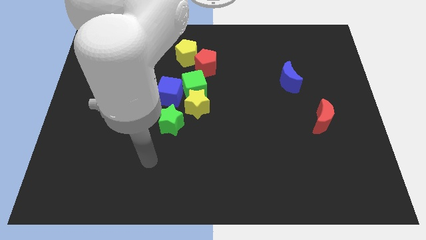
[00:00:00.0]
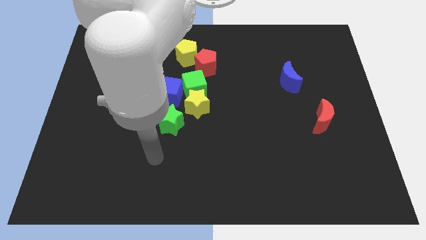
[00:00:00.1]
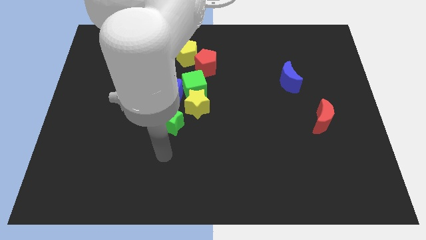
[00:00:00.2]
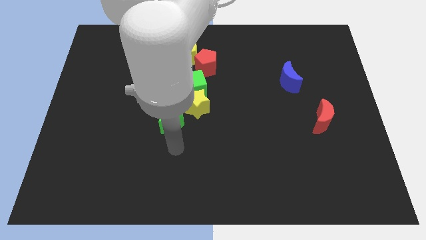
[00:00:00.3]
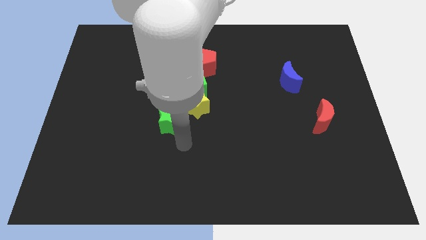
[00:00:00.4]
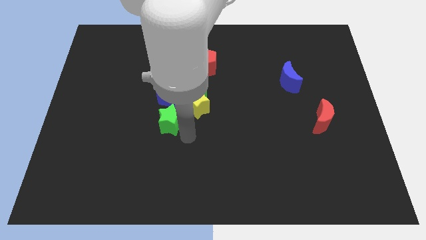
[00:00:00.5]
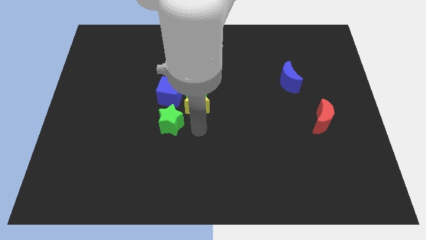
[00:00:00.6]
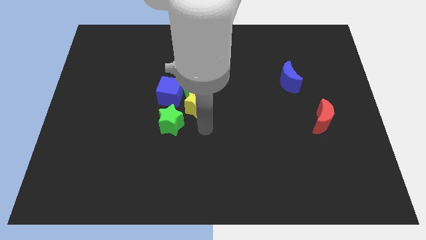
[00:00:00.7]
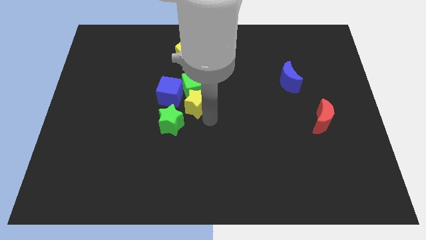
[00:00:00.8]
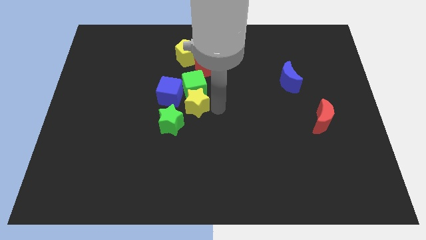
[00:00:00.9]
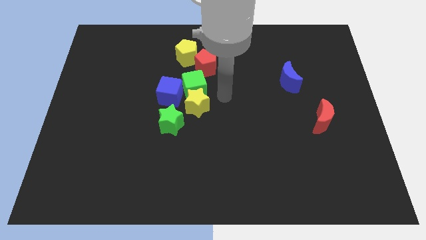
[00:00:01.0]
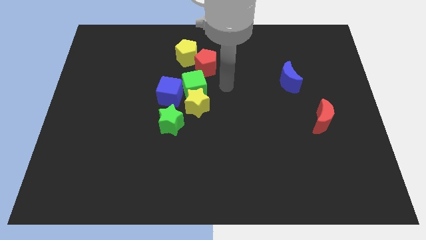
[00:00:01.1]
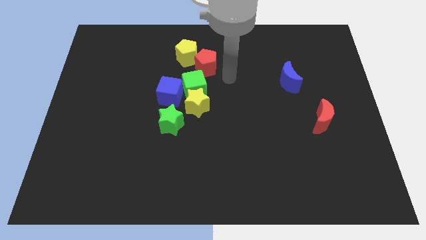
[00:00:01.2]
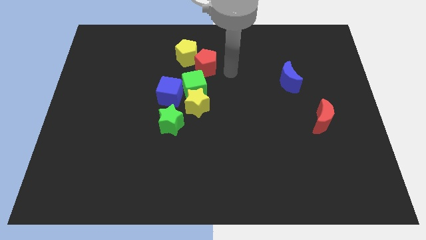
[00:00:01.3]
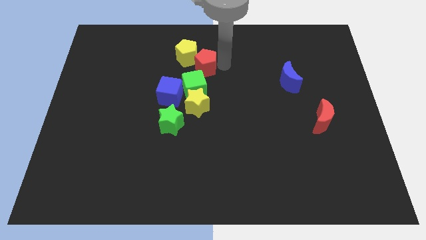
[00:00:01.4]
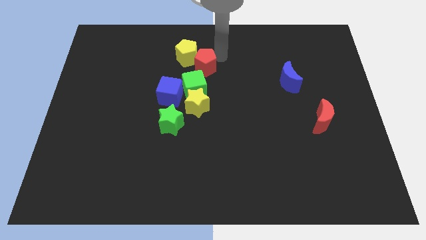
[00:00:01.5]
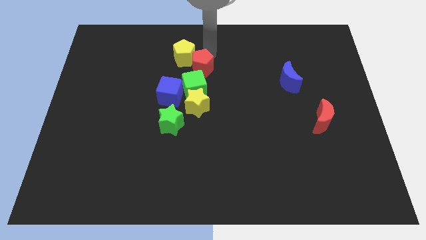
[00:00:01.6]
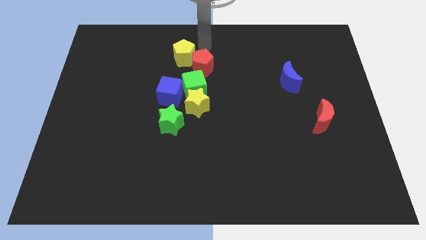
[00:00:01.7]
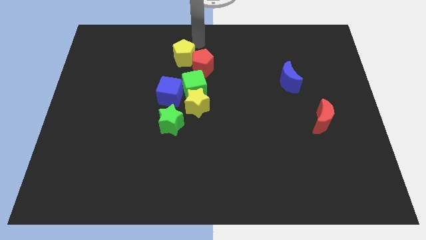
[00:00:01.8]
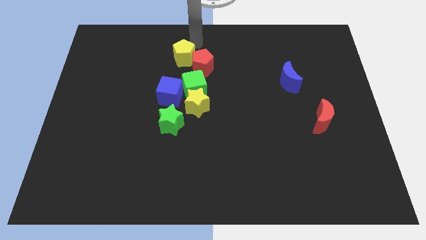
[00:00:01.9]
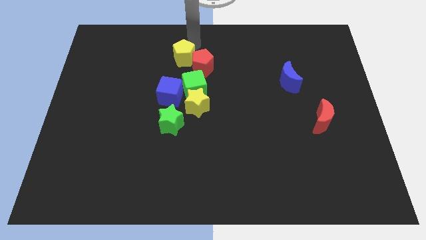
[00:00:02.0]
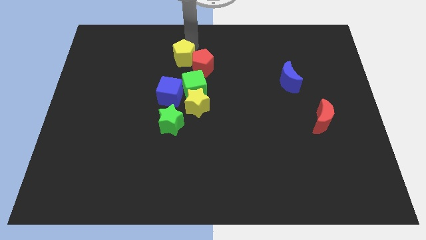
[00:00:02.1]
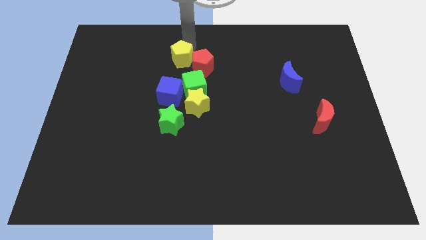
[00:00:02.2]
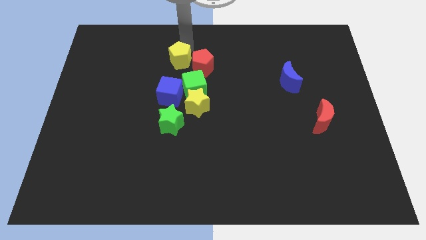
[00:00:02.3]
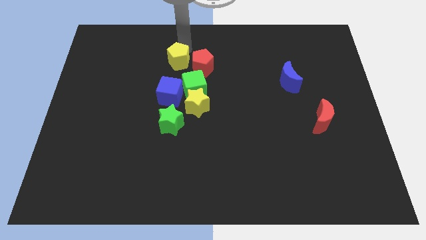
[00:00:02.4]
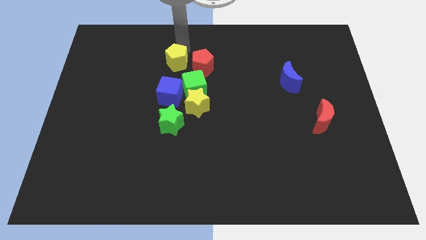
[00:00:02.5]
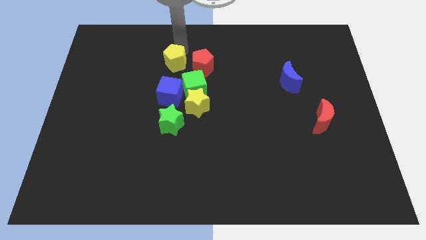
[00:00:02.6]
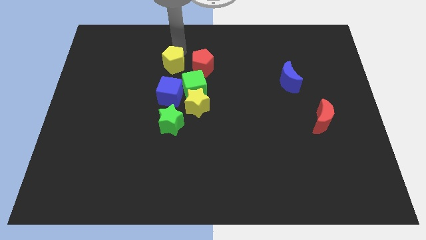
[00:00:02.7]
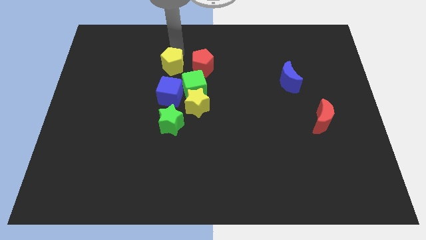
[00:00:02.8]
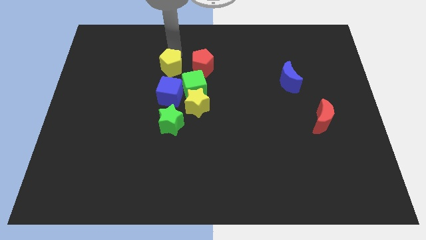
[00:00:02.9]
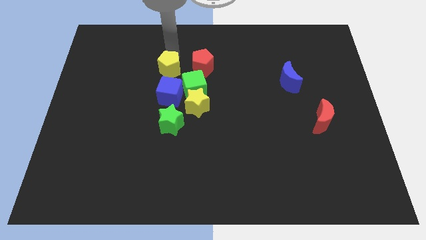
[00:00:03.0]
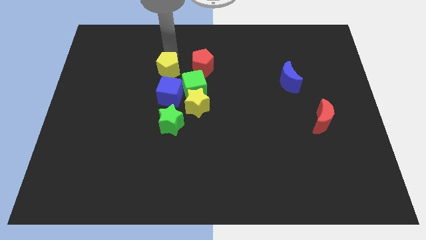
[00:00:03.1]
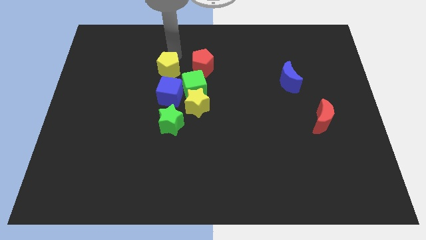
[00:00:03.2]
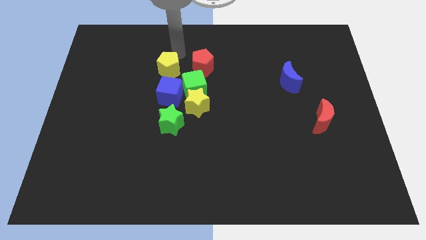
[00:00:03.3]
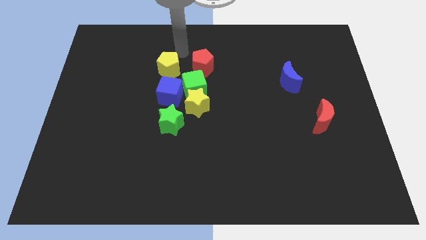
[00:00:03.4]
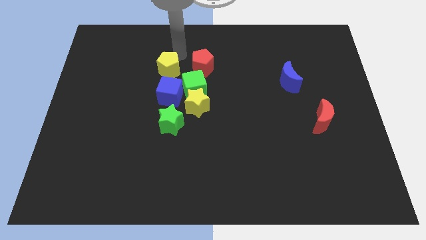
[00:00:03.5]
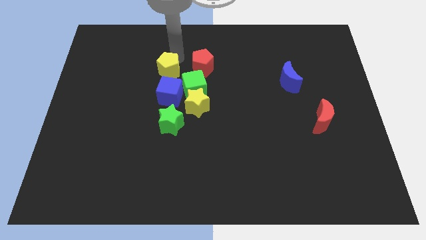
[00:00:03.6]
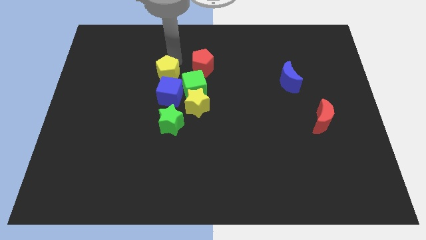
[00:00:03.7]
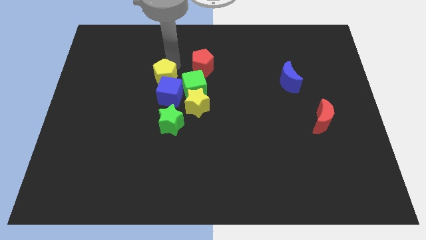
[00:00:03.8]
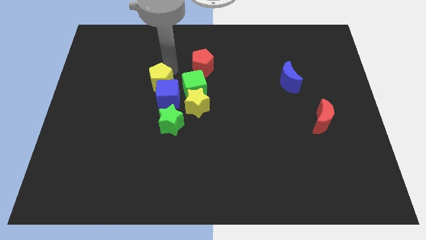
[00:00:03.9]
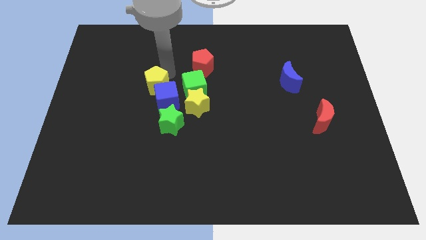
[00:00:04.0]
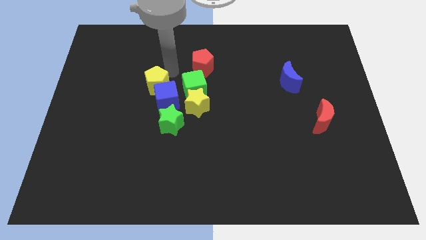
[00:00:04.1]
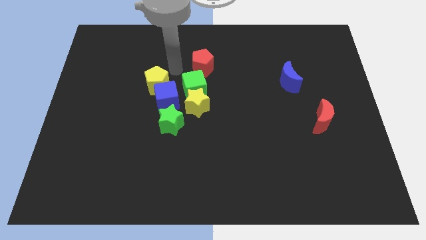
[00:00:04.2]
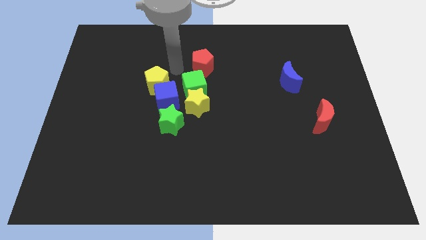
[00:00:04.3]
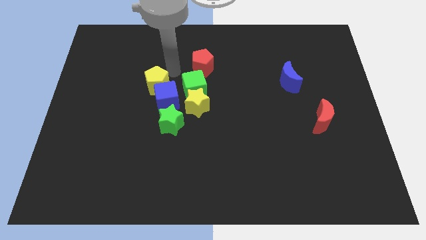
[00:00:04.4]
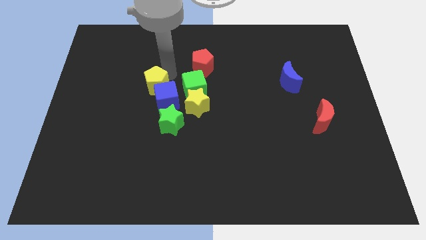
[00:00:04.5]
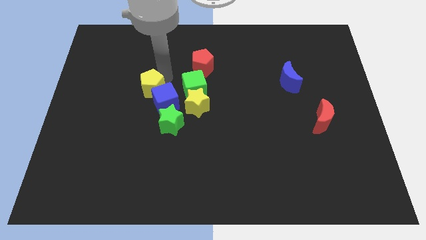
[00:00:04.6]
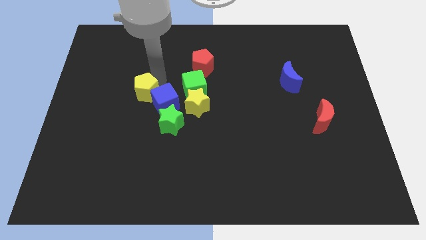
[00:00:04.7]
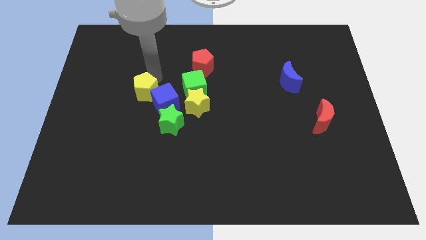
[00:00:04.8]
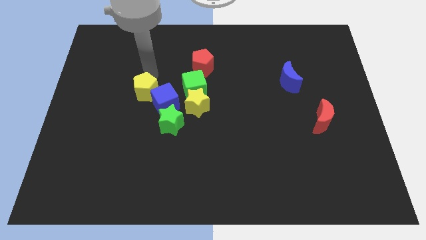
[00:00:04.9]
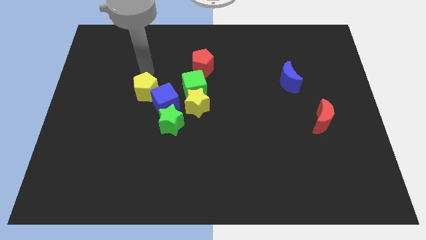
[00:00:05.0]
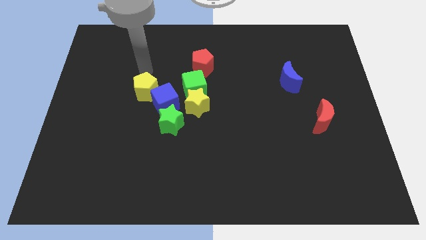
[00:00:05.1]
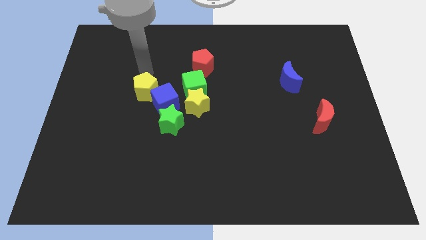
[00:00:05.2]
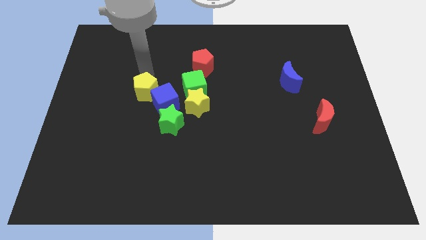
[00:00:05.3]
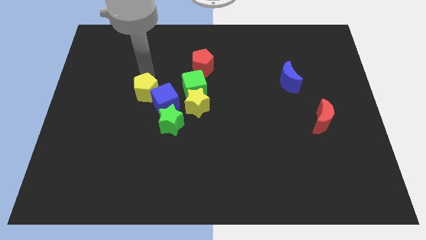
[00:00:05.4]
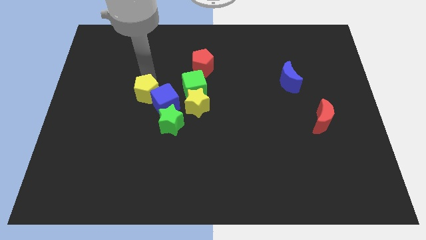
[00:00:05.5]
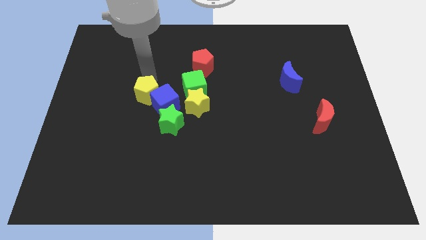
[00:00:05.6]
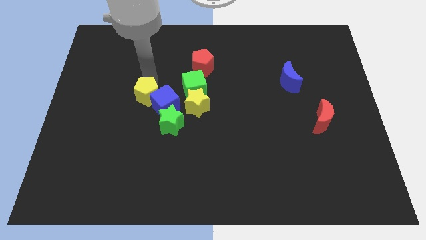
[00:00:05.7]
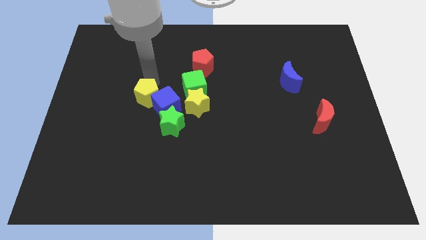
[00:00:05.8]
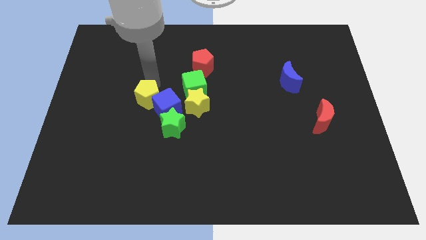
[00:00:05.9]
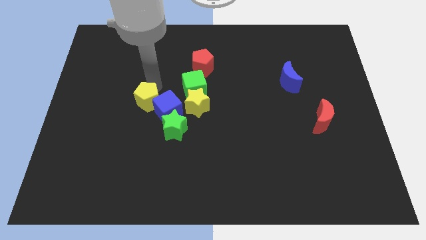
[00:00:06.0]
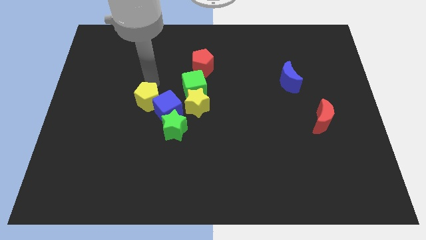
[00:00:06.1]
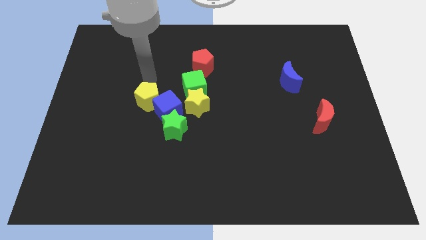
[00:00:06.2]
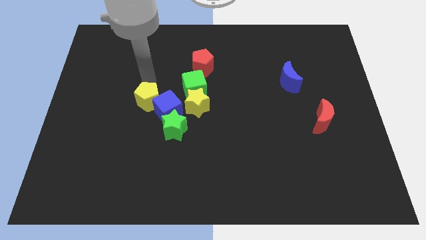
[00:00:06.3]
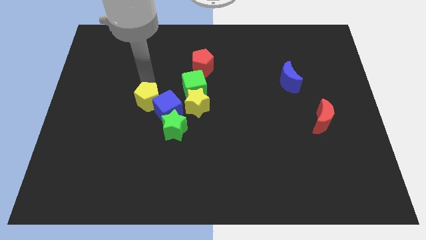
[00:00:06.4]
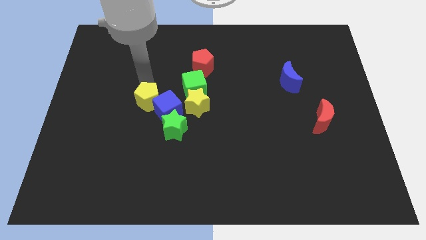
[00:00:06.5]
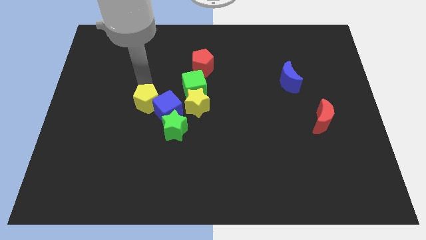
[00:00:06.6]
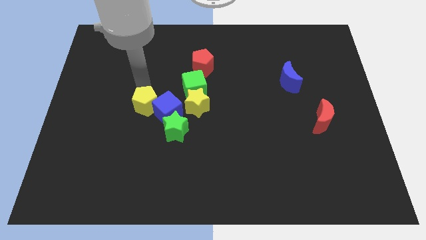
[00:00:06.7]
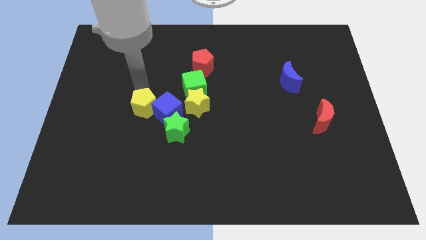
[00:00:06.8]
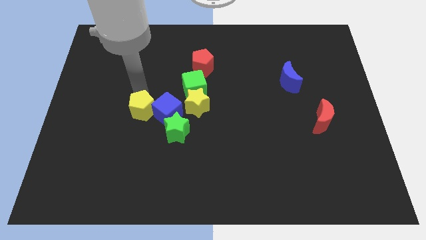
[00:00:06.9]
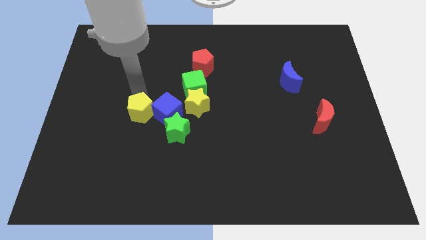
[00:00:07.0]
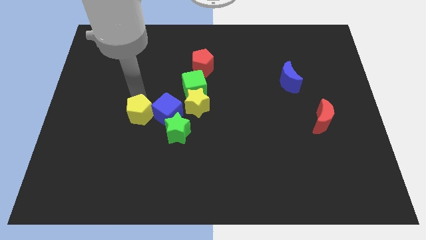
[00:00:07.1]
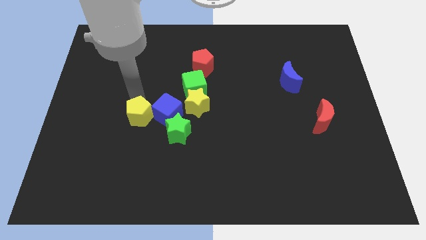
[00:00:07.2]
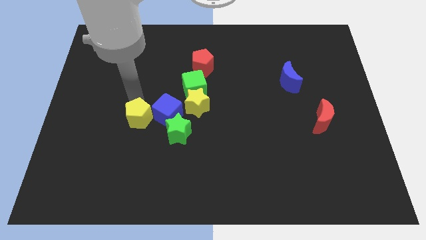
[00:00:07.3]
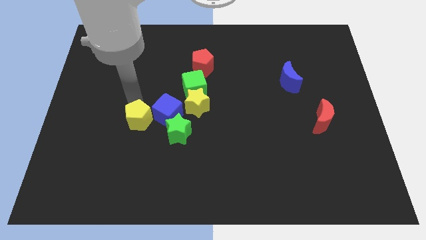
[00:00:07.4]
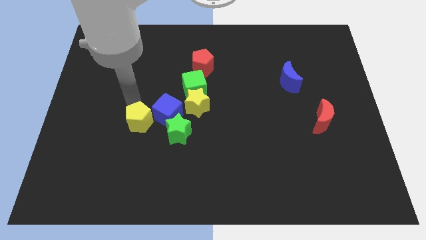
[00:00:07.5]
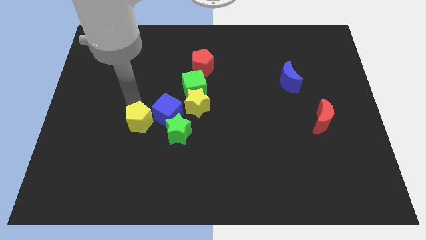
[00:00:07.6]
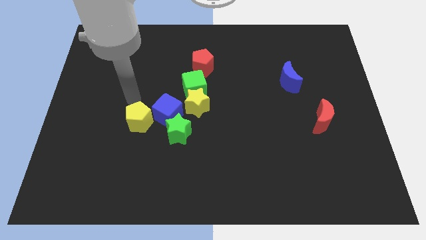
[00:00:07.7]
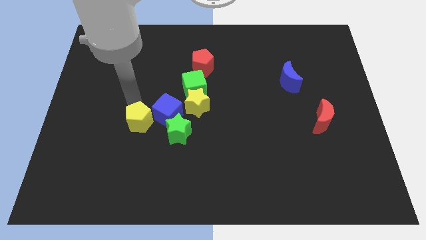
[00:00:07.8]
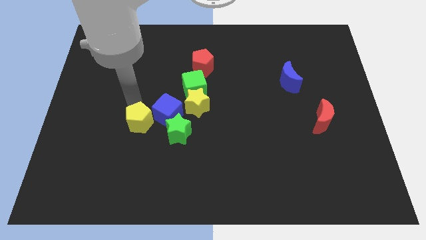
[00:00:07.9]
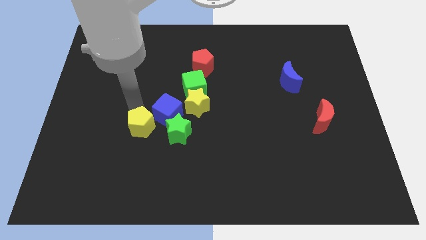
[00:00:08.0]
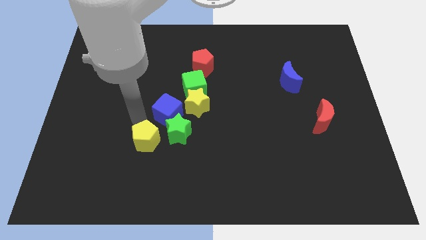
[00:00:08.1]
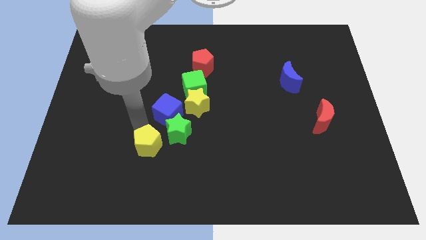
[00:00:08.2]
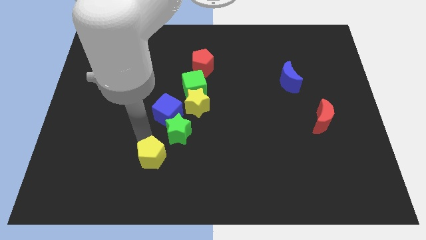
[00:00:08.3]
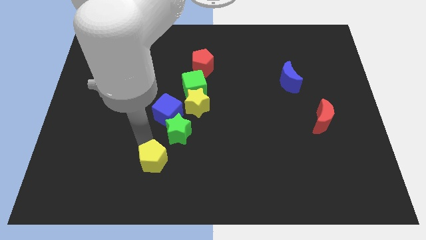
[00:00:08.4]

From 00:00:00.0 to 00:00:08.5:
put the yellow pentagon to the bottom of the green star
